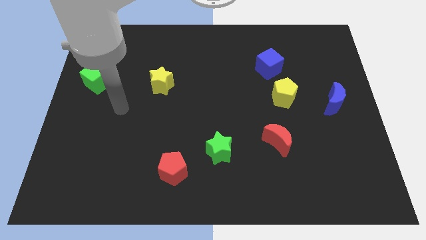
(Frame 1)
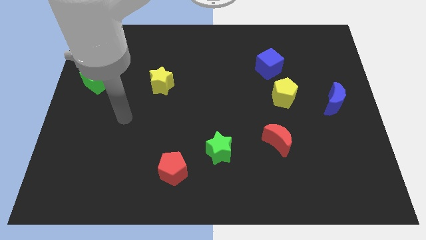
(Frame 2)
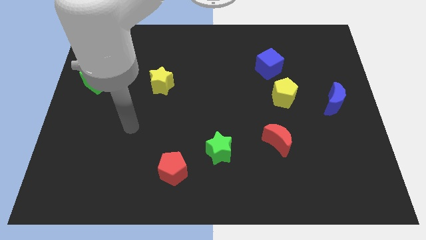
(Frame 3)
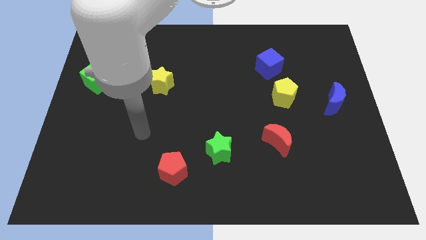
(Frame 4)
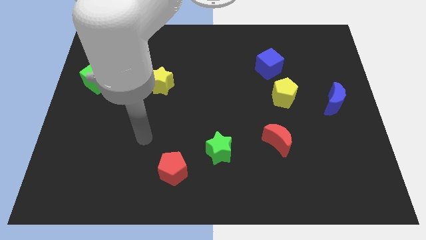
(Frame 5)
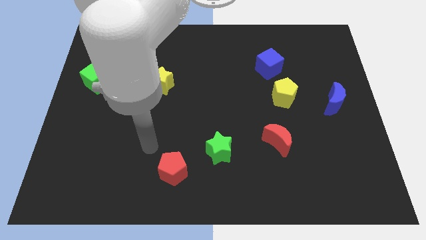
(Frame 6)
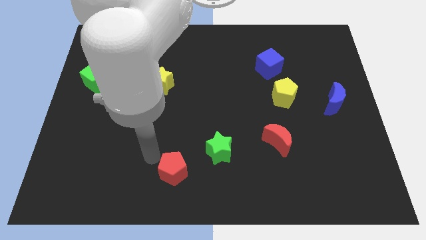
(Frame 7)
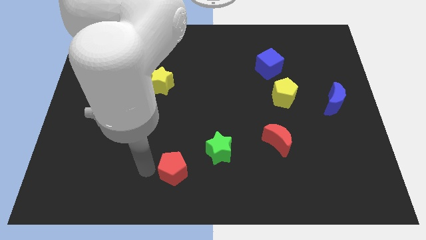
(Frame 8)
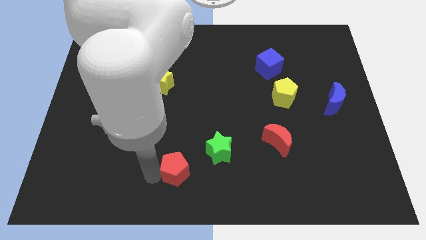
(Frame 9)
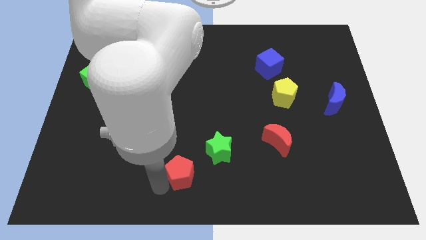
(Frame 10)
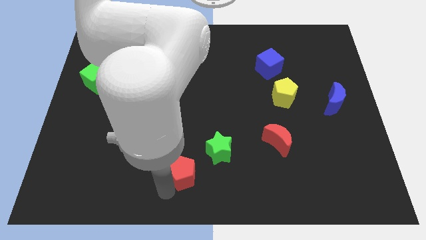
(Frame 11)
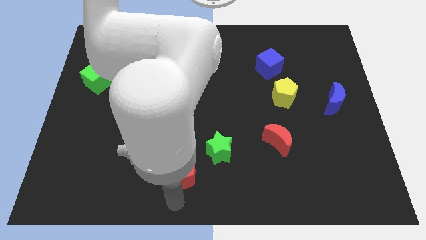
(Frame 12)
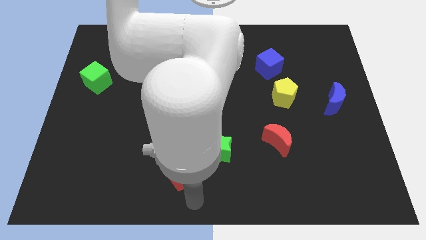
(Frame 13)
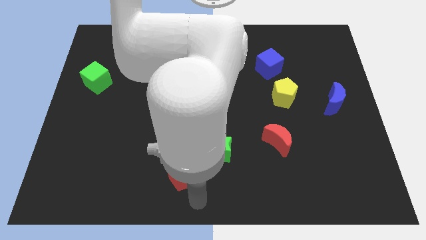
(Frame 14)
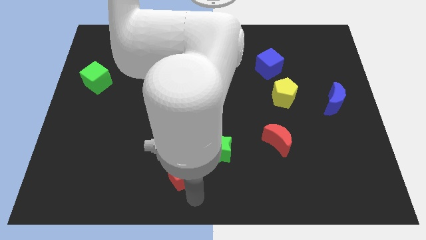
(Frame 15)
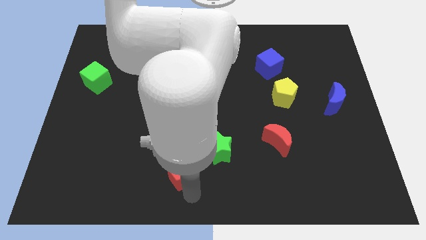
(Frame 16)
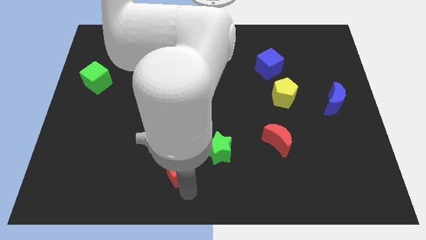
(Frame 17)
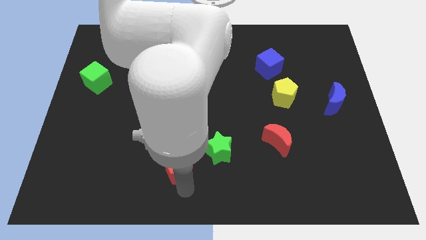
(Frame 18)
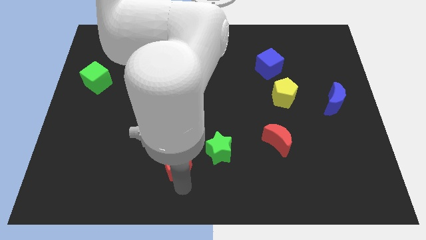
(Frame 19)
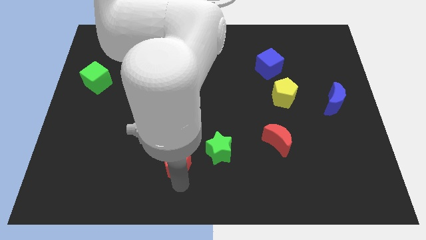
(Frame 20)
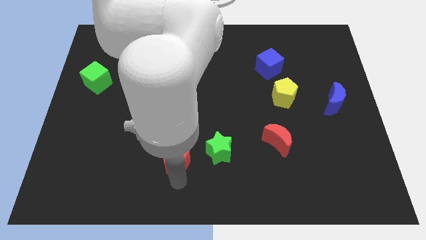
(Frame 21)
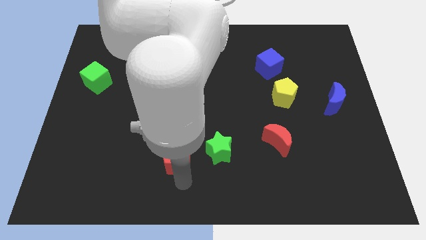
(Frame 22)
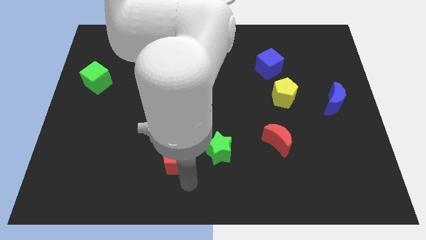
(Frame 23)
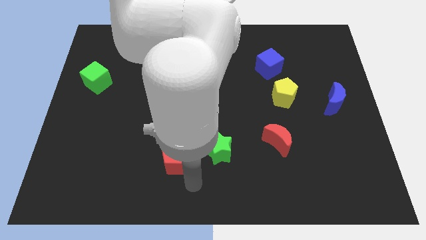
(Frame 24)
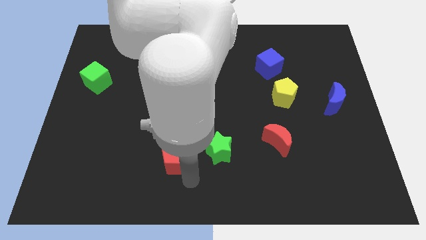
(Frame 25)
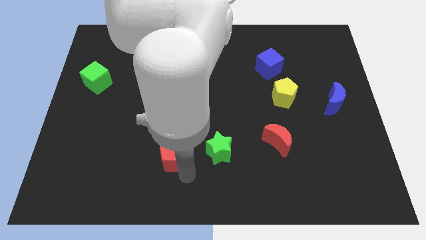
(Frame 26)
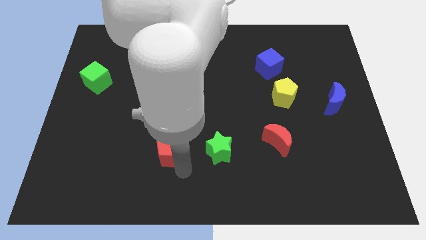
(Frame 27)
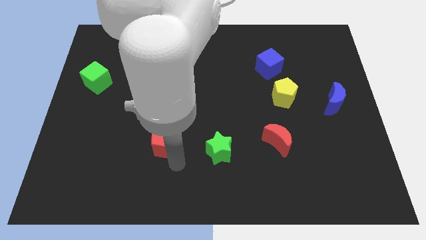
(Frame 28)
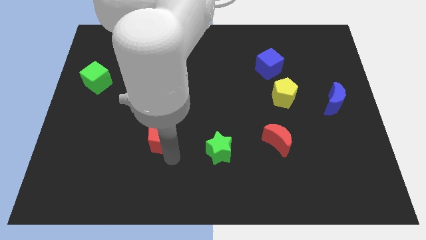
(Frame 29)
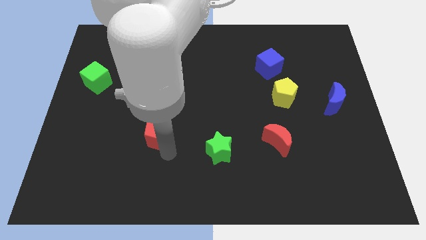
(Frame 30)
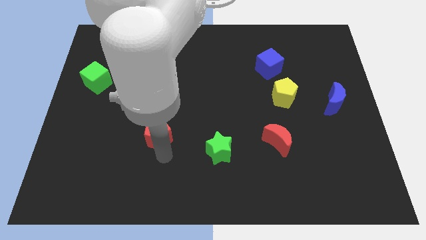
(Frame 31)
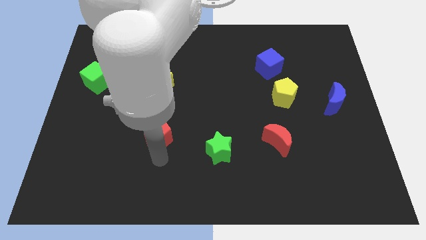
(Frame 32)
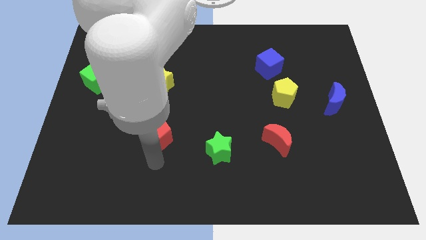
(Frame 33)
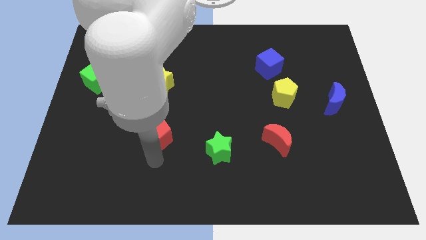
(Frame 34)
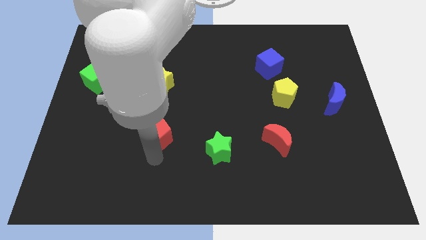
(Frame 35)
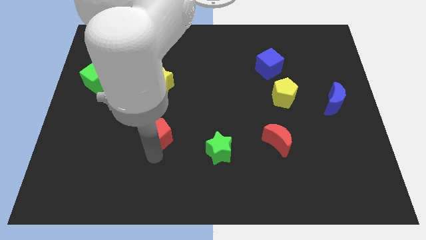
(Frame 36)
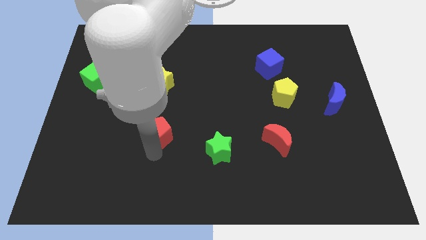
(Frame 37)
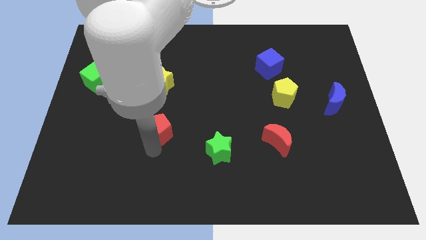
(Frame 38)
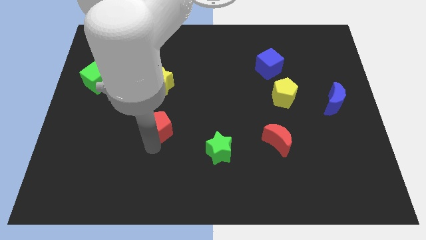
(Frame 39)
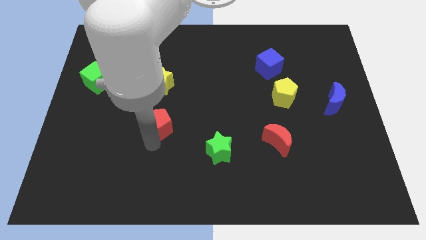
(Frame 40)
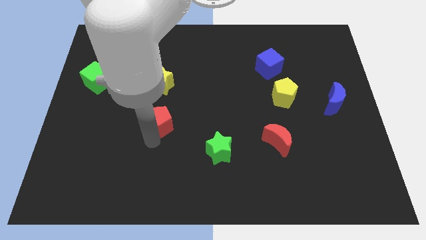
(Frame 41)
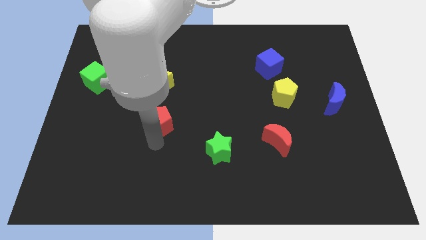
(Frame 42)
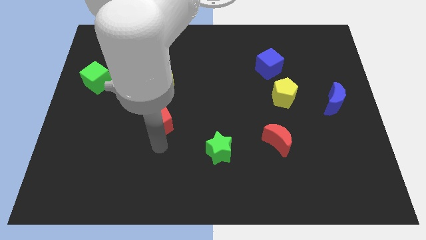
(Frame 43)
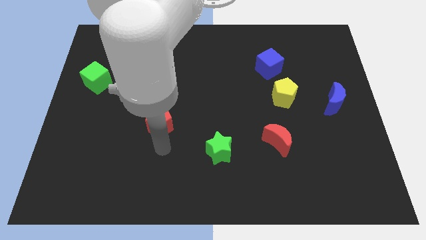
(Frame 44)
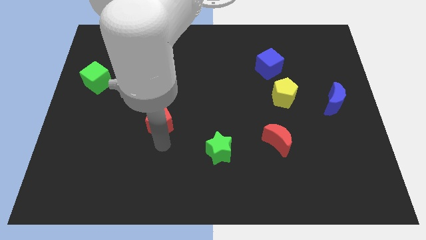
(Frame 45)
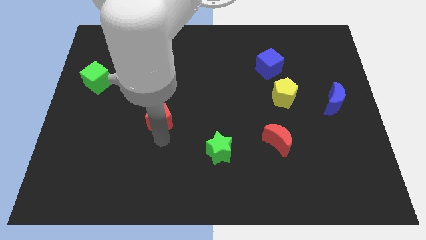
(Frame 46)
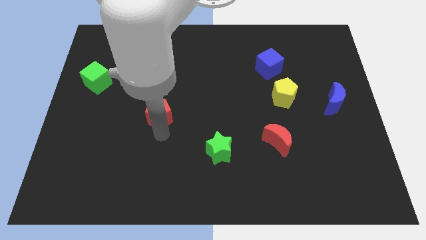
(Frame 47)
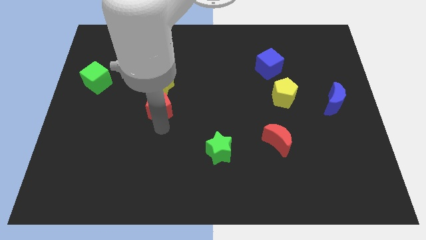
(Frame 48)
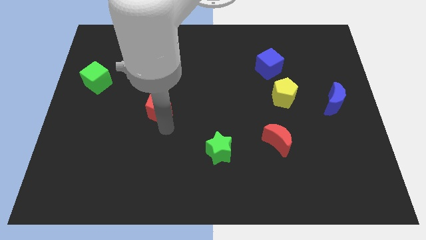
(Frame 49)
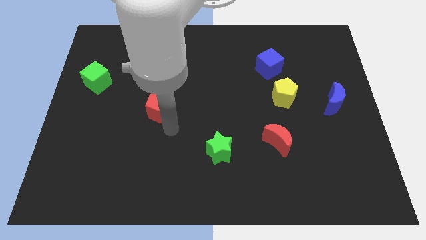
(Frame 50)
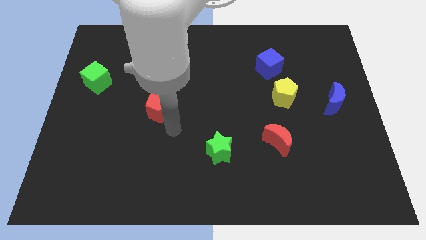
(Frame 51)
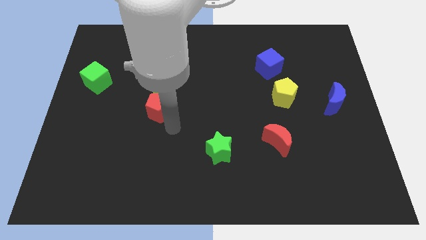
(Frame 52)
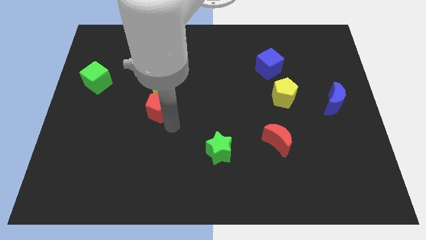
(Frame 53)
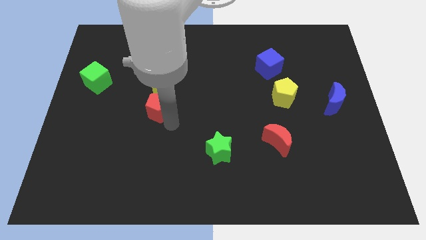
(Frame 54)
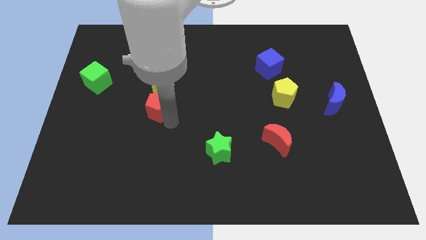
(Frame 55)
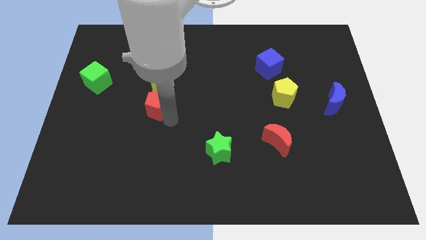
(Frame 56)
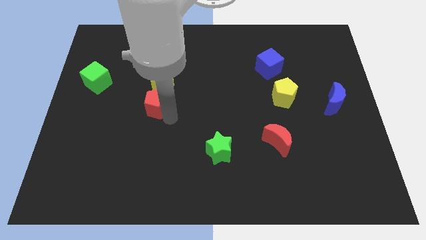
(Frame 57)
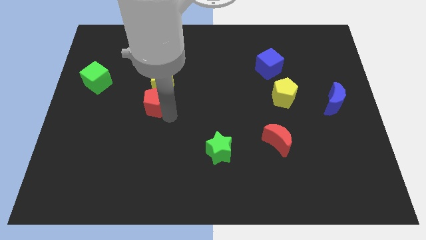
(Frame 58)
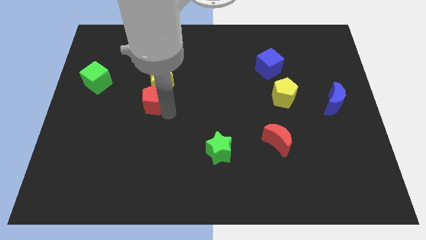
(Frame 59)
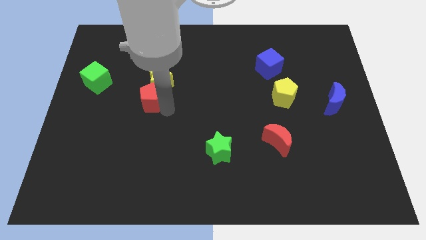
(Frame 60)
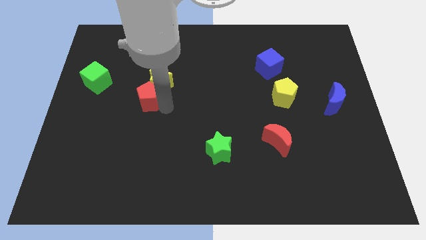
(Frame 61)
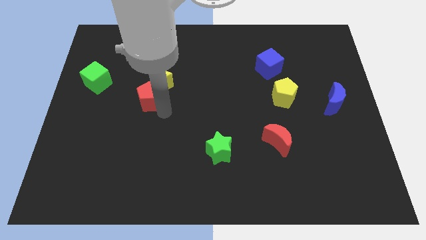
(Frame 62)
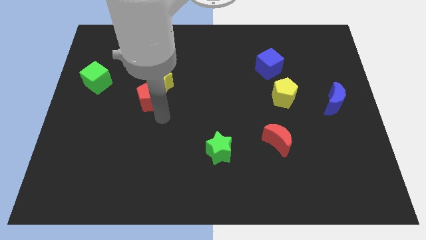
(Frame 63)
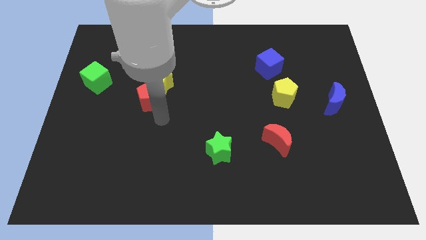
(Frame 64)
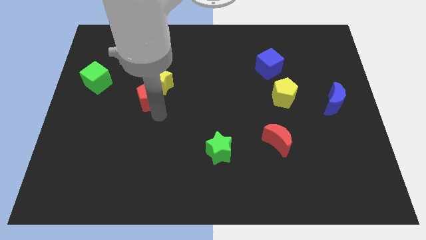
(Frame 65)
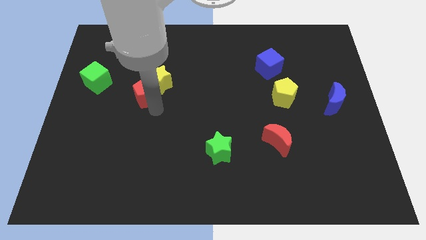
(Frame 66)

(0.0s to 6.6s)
push the red pentagon right of the green cube

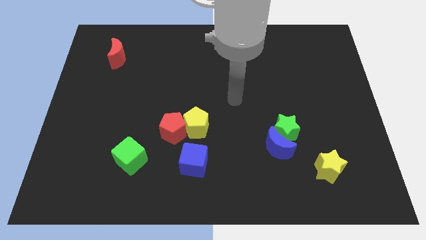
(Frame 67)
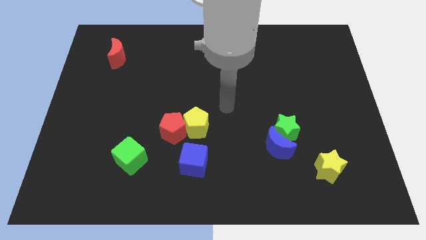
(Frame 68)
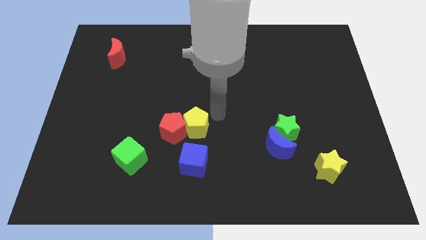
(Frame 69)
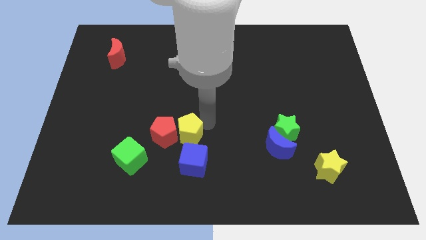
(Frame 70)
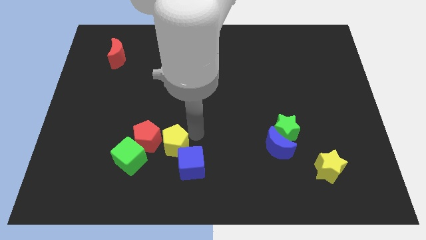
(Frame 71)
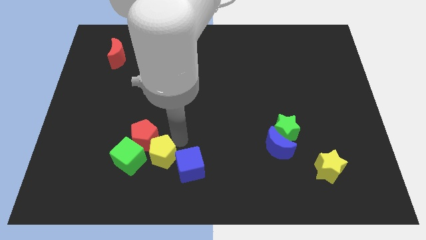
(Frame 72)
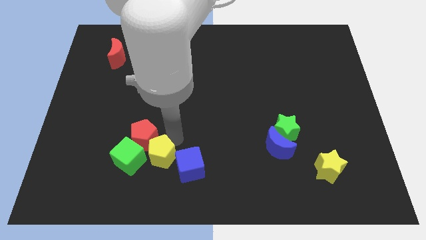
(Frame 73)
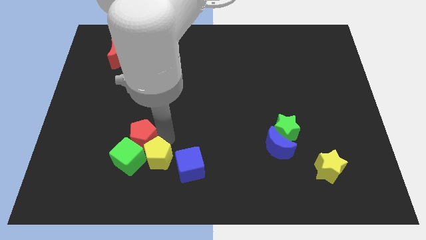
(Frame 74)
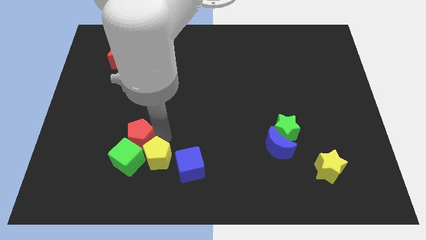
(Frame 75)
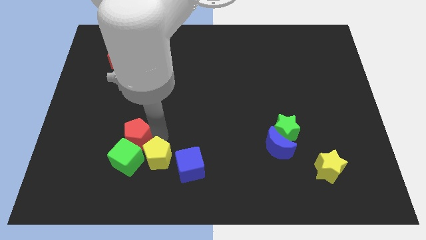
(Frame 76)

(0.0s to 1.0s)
slide the red pentagon diagonally up and to the left of the green cube

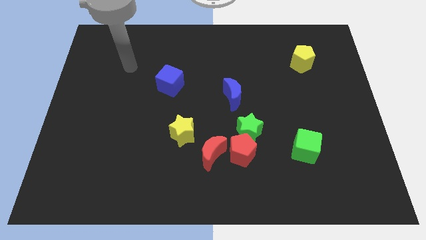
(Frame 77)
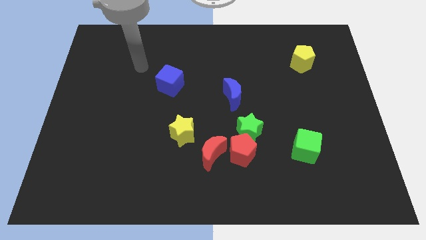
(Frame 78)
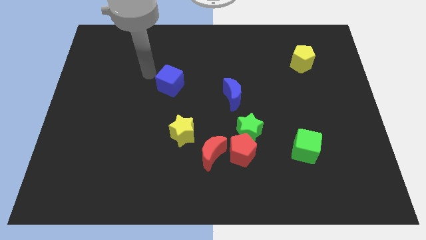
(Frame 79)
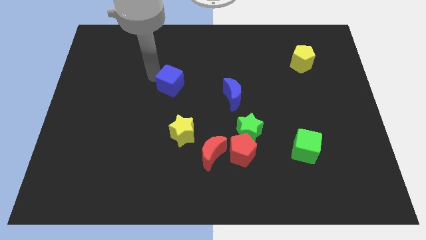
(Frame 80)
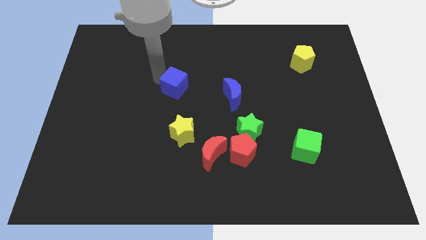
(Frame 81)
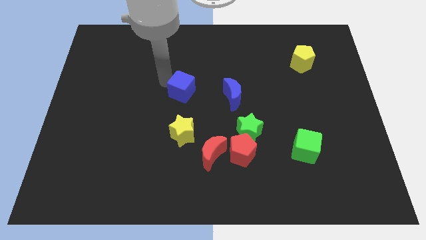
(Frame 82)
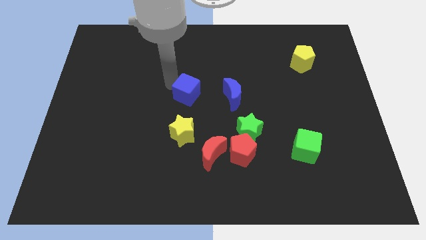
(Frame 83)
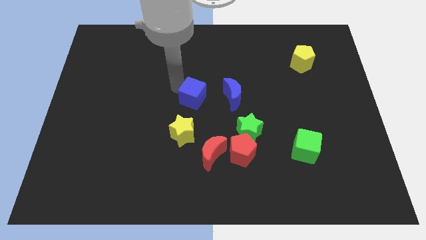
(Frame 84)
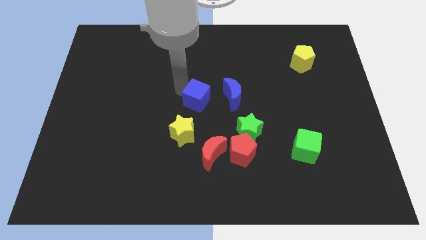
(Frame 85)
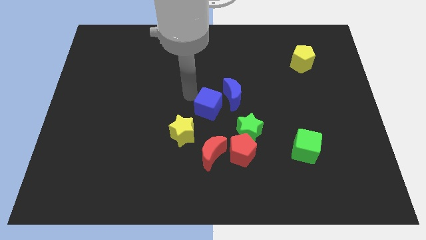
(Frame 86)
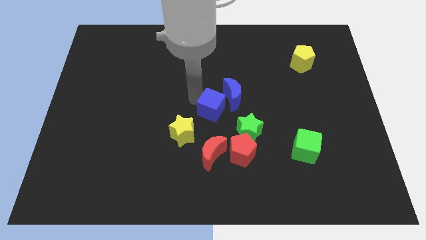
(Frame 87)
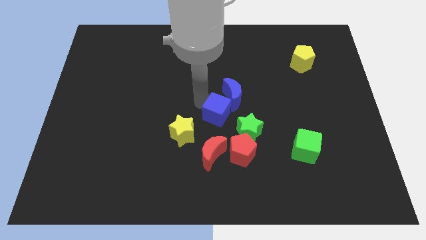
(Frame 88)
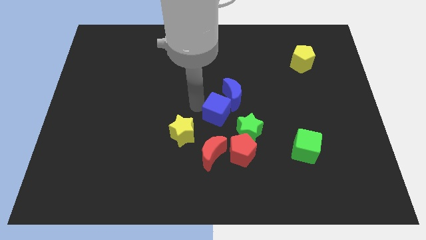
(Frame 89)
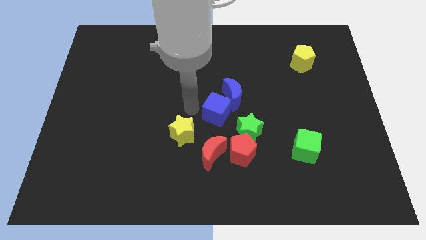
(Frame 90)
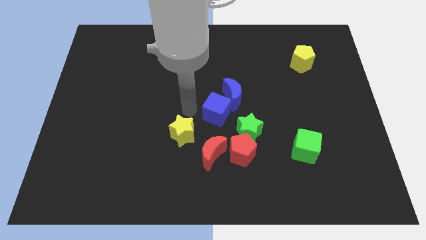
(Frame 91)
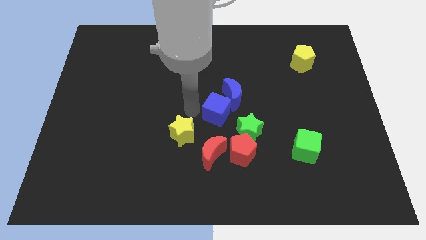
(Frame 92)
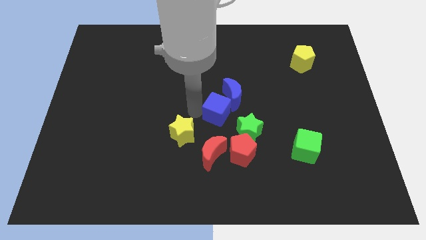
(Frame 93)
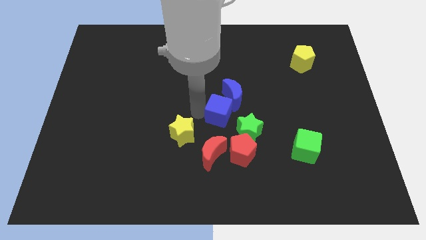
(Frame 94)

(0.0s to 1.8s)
move the blue cube to the top of the red pentagon
